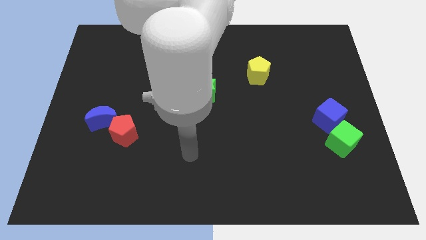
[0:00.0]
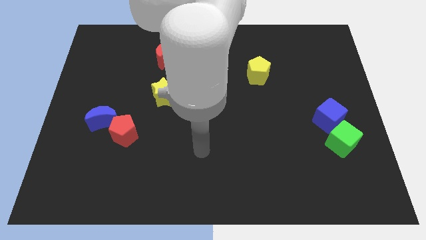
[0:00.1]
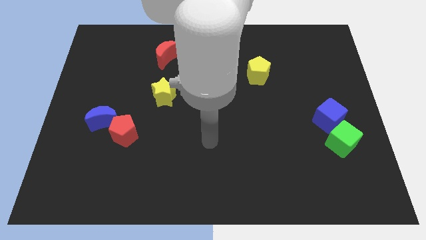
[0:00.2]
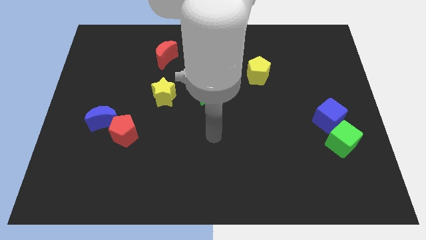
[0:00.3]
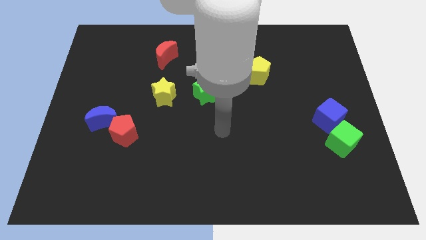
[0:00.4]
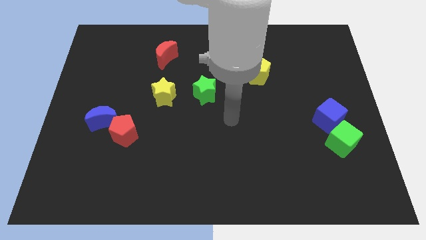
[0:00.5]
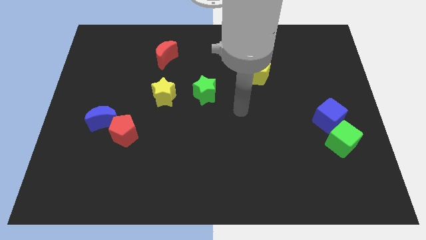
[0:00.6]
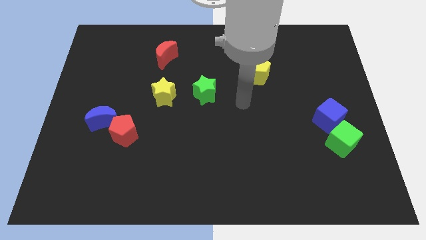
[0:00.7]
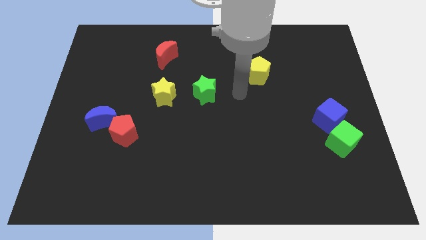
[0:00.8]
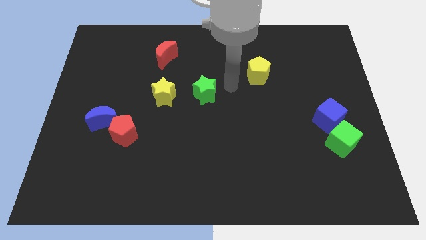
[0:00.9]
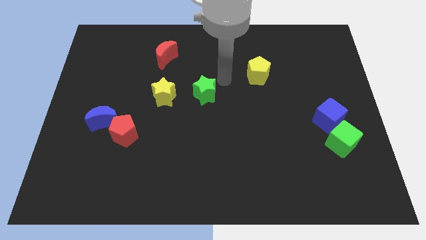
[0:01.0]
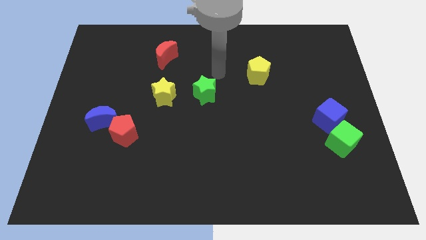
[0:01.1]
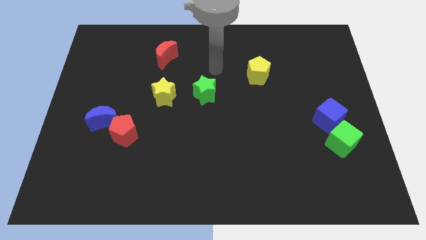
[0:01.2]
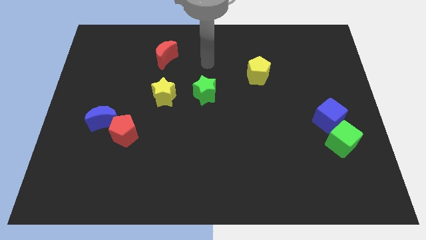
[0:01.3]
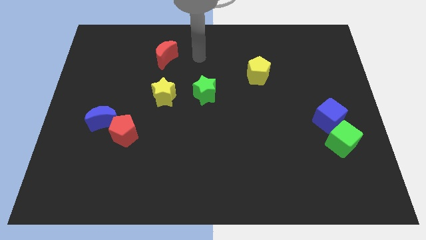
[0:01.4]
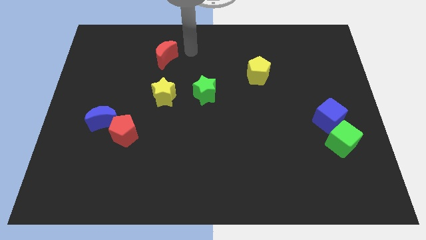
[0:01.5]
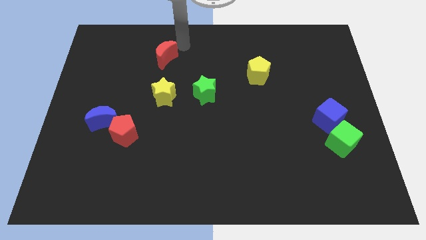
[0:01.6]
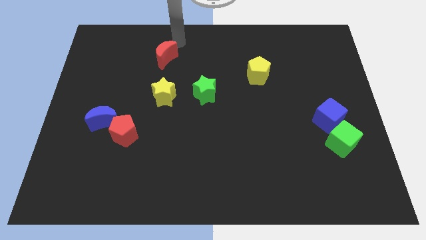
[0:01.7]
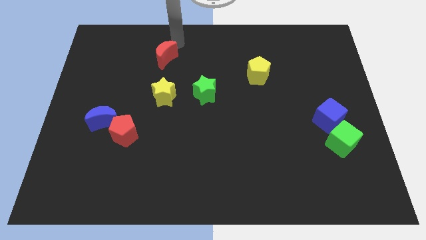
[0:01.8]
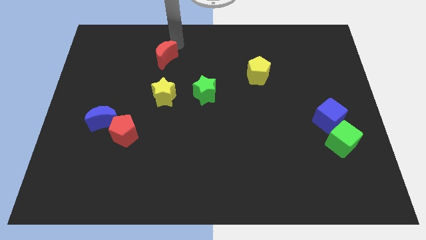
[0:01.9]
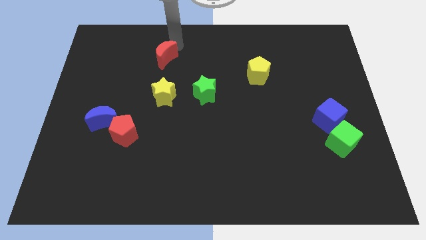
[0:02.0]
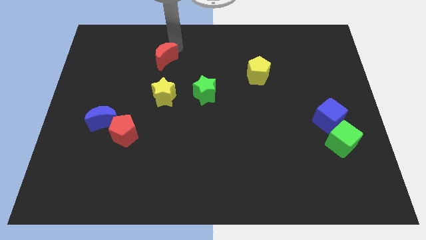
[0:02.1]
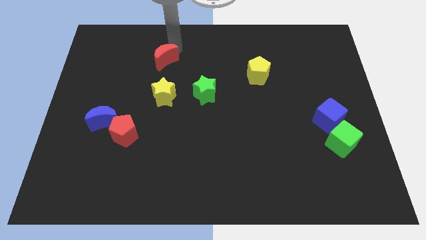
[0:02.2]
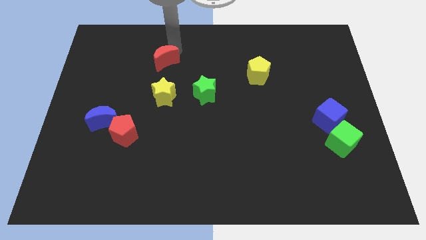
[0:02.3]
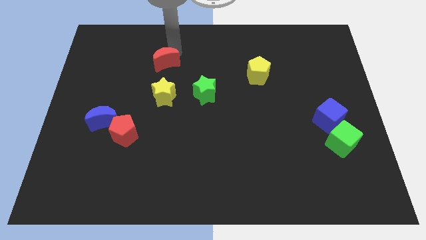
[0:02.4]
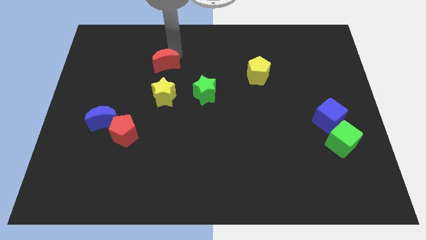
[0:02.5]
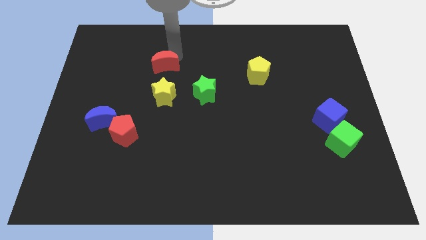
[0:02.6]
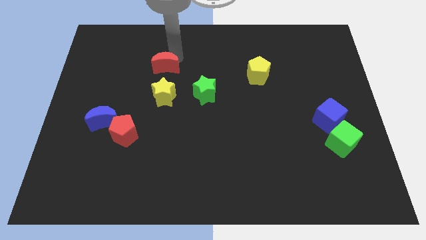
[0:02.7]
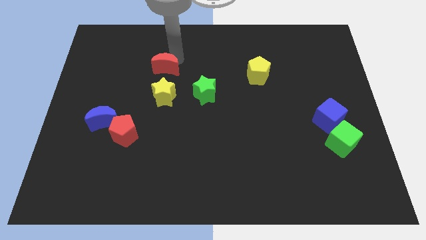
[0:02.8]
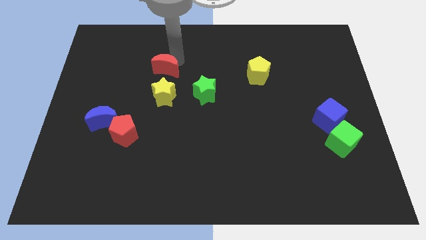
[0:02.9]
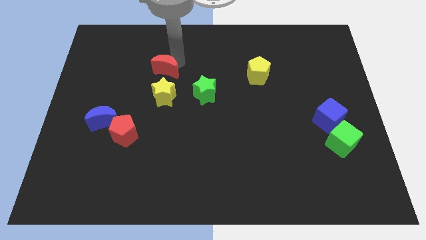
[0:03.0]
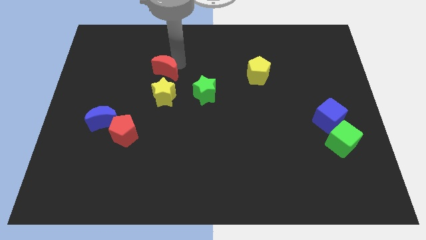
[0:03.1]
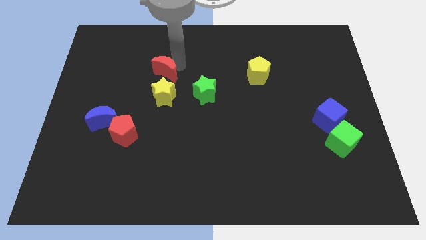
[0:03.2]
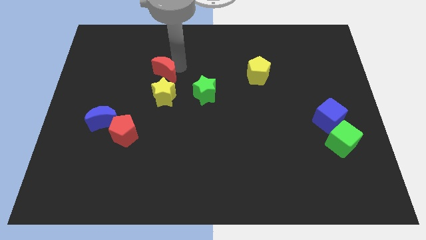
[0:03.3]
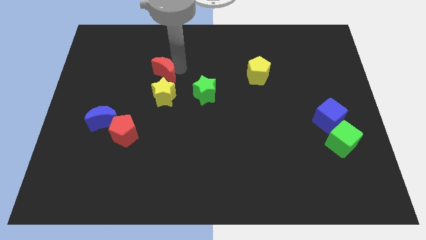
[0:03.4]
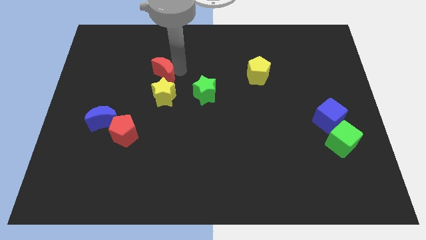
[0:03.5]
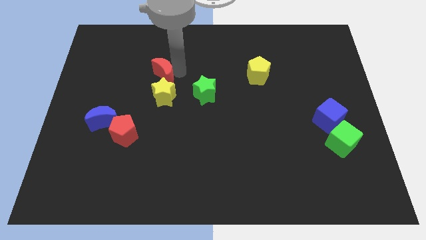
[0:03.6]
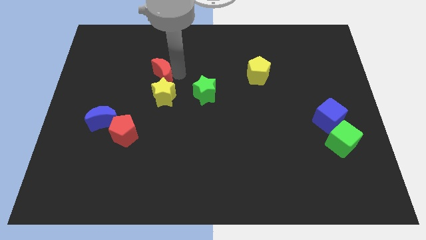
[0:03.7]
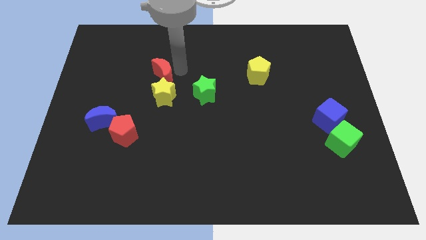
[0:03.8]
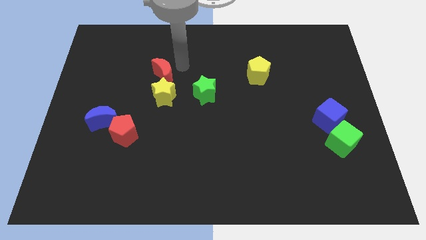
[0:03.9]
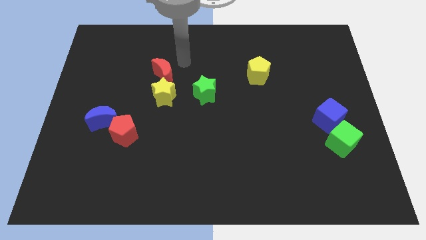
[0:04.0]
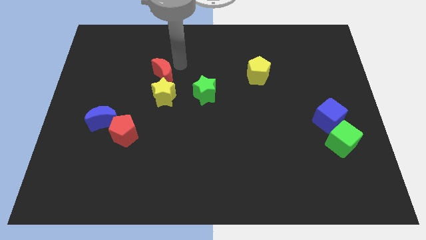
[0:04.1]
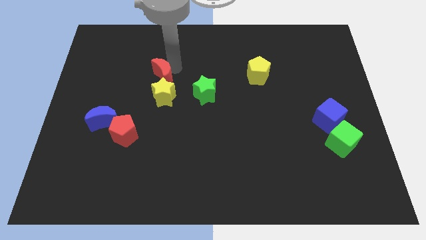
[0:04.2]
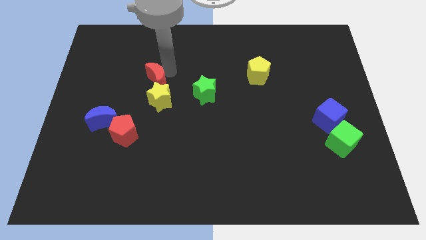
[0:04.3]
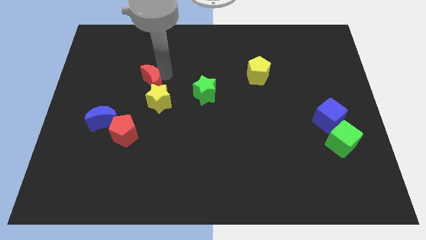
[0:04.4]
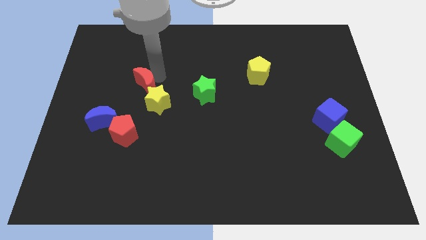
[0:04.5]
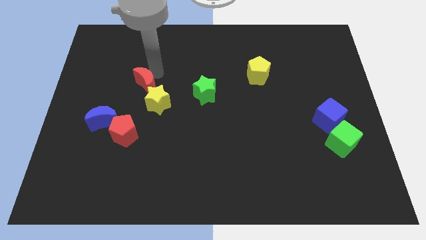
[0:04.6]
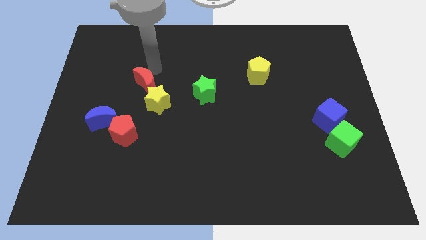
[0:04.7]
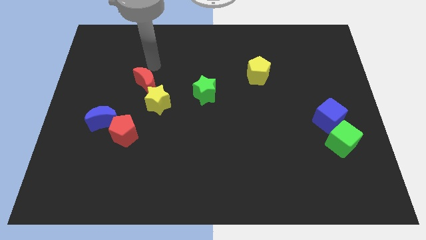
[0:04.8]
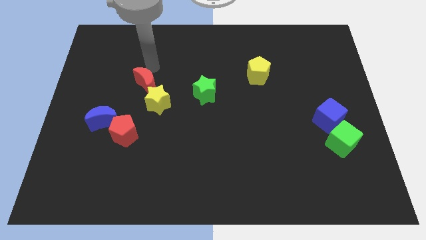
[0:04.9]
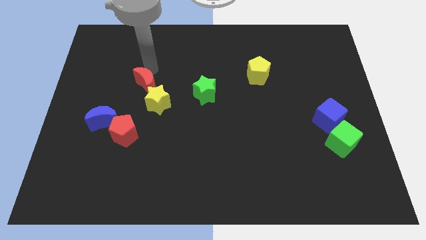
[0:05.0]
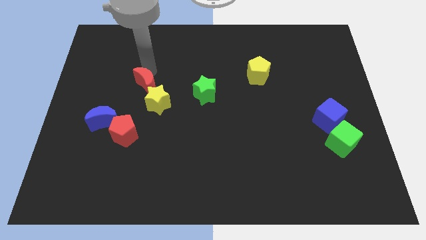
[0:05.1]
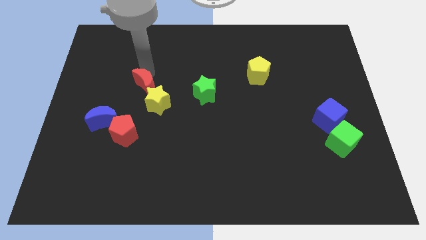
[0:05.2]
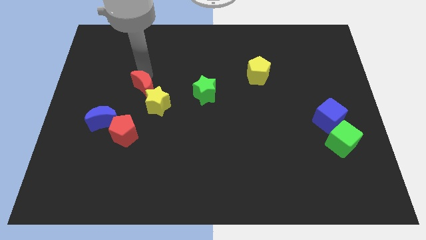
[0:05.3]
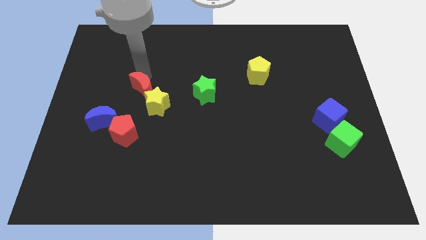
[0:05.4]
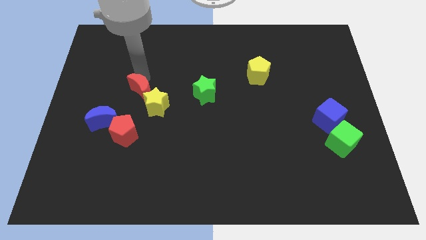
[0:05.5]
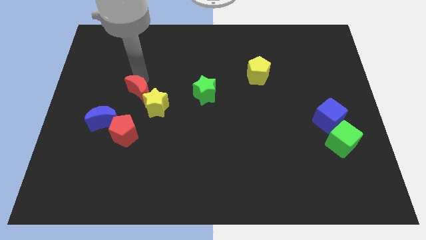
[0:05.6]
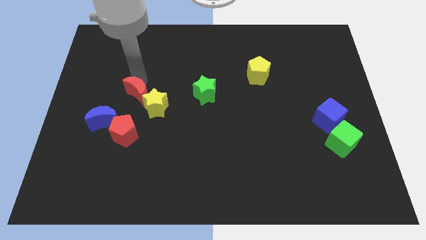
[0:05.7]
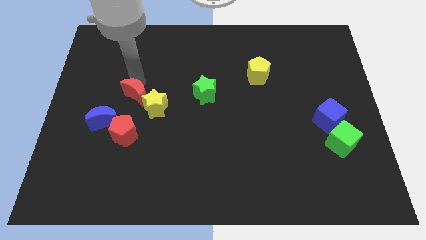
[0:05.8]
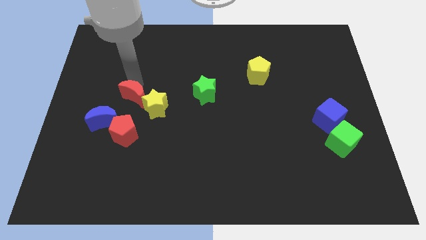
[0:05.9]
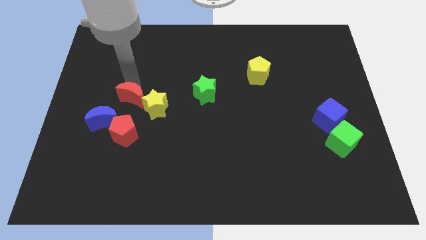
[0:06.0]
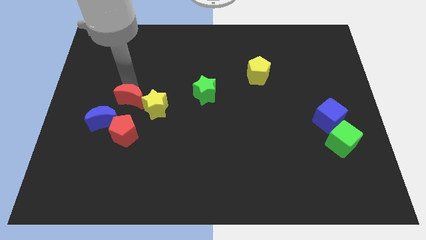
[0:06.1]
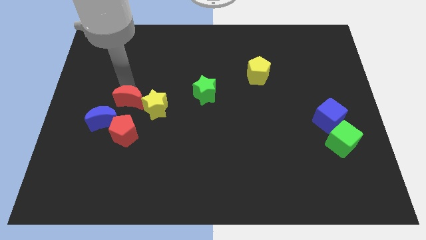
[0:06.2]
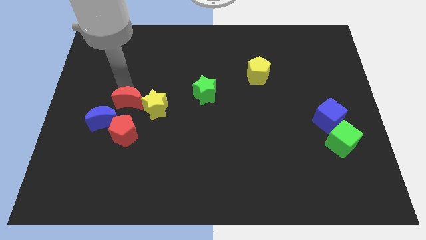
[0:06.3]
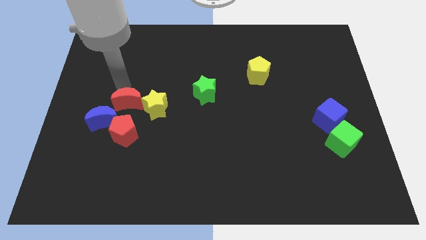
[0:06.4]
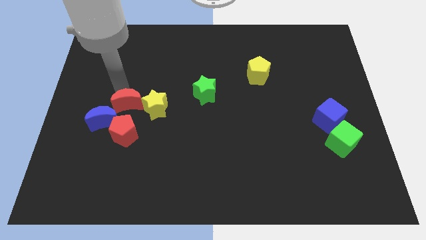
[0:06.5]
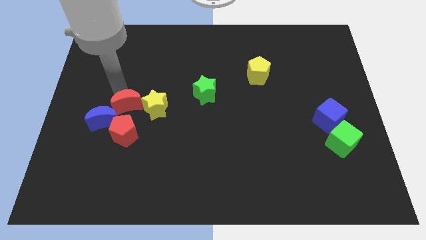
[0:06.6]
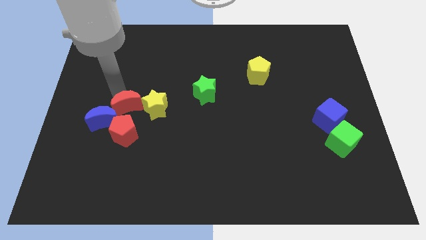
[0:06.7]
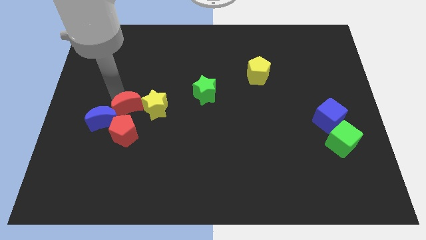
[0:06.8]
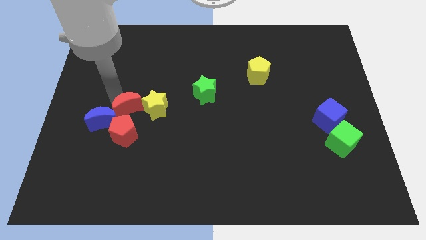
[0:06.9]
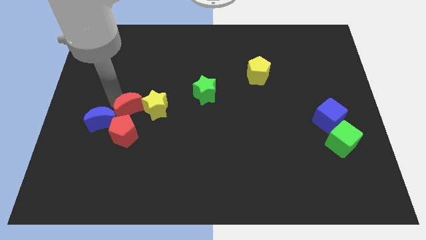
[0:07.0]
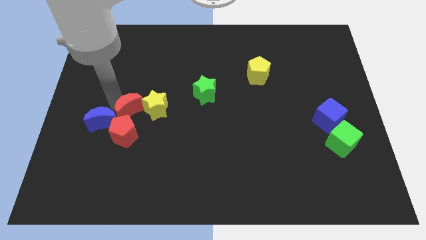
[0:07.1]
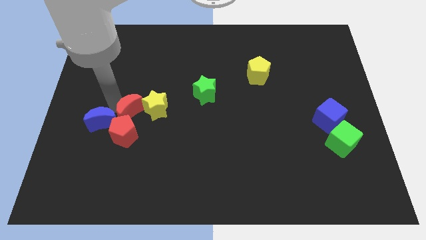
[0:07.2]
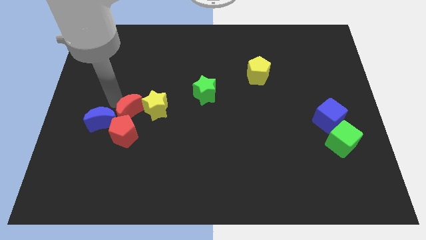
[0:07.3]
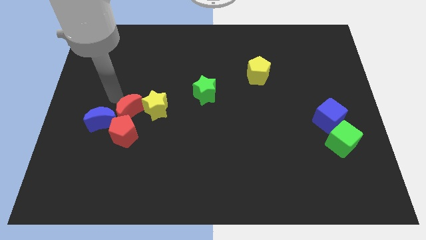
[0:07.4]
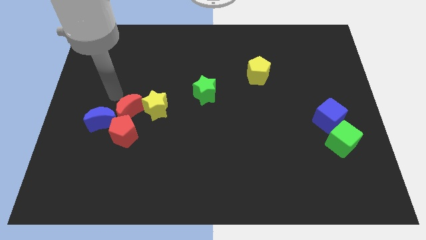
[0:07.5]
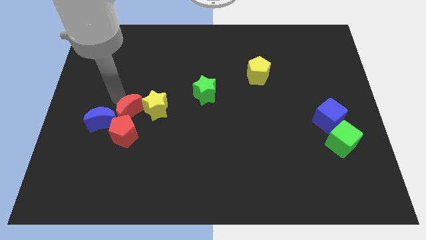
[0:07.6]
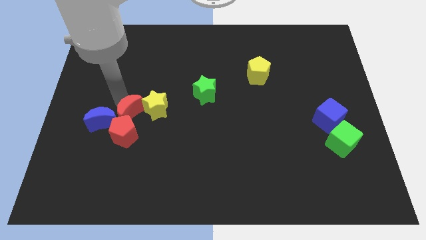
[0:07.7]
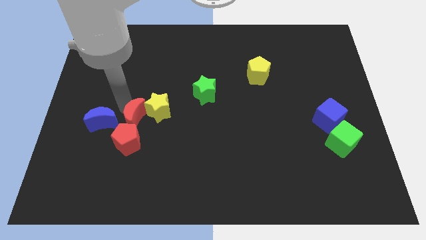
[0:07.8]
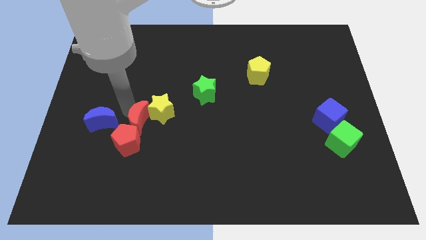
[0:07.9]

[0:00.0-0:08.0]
move the red moon down
